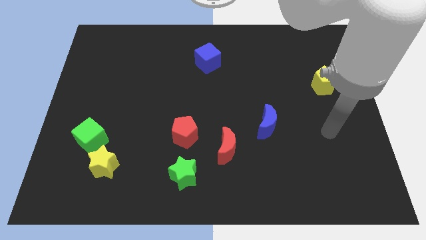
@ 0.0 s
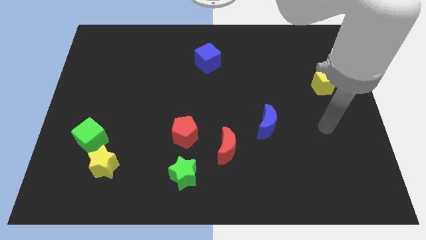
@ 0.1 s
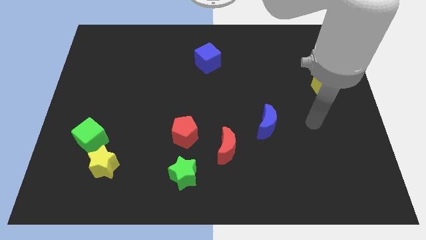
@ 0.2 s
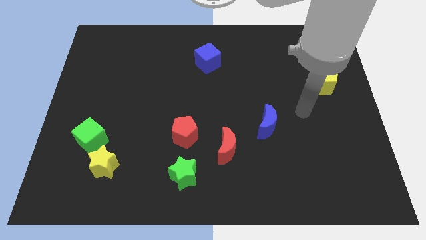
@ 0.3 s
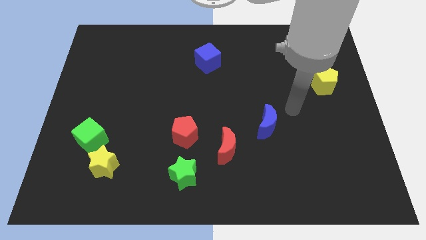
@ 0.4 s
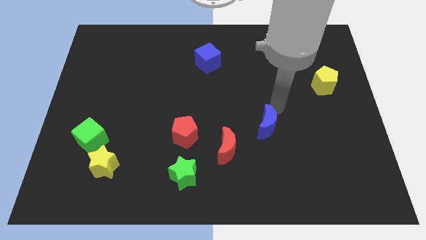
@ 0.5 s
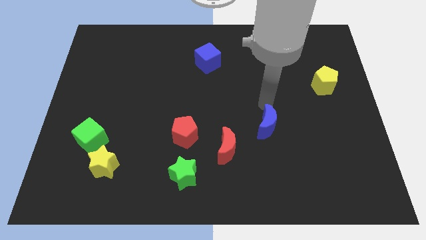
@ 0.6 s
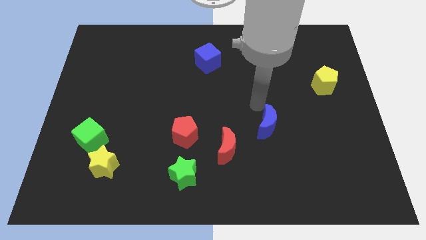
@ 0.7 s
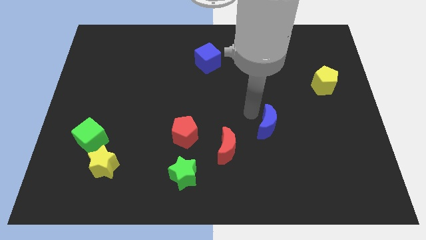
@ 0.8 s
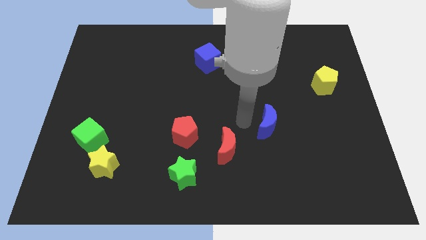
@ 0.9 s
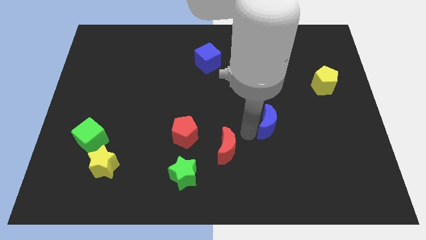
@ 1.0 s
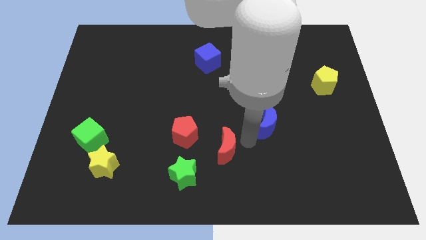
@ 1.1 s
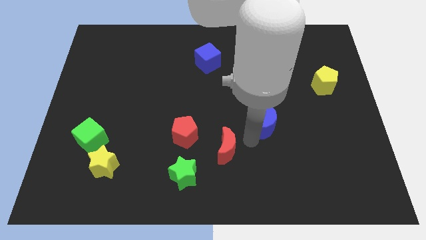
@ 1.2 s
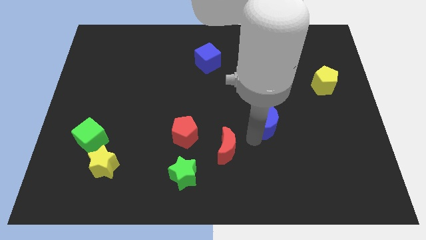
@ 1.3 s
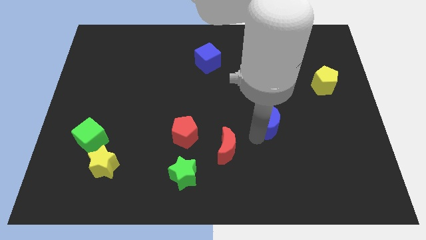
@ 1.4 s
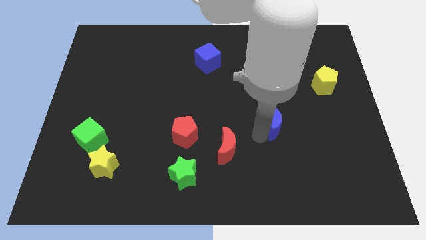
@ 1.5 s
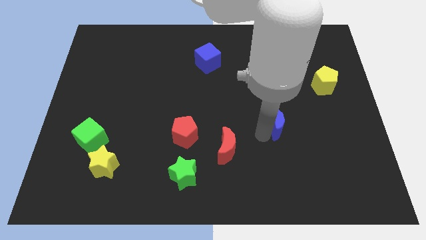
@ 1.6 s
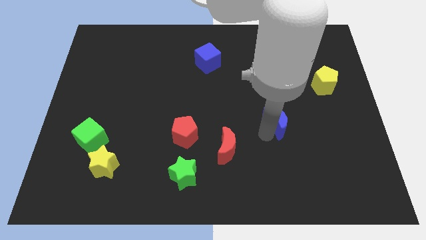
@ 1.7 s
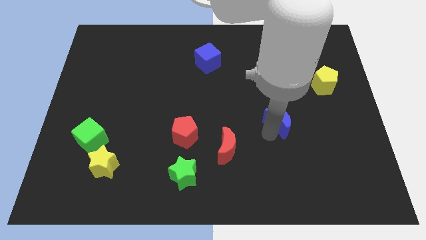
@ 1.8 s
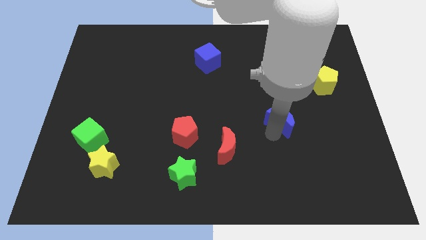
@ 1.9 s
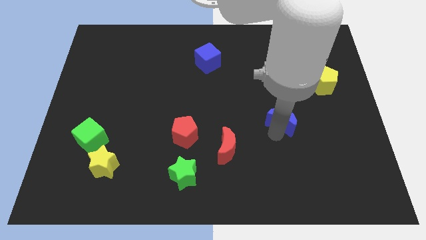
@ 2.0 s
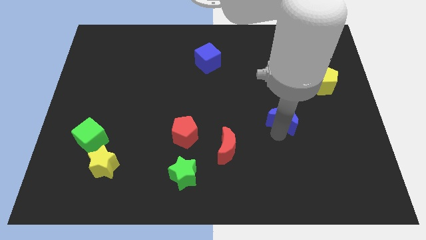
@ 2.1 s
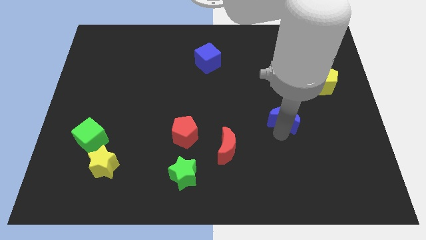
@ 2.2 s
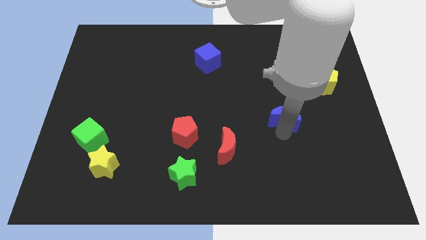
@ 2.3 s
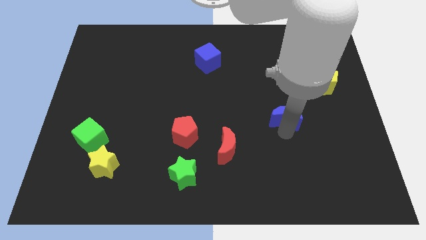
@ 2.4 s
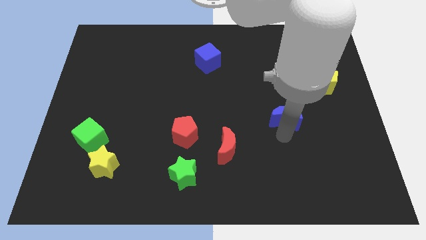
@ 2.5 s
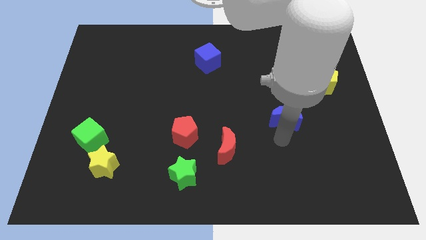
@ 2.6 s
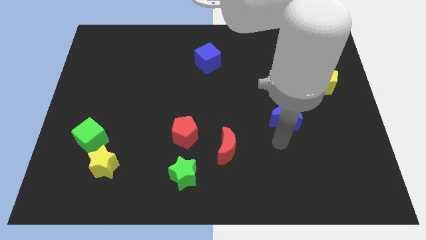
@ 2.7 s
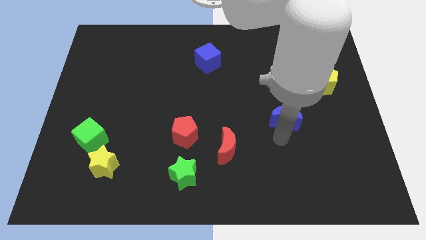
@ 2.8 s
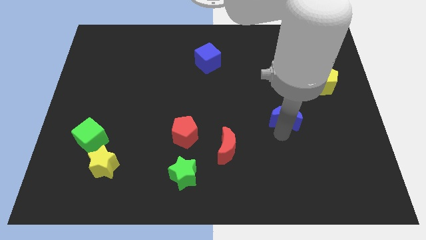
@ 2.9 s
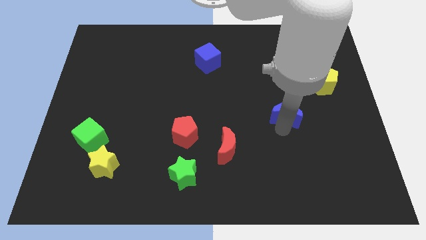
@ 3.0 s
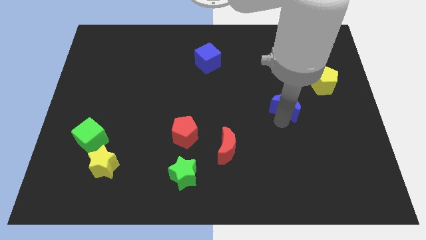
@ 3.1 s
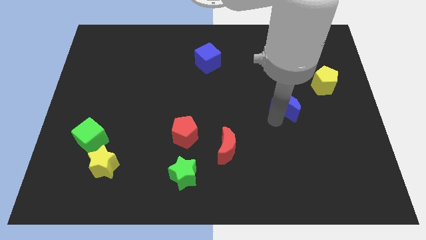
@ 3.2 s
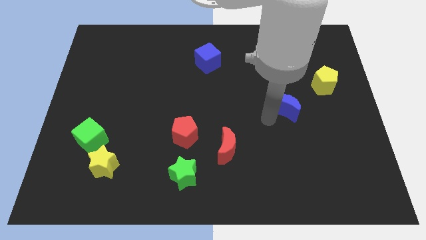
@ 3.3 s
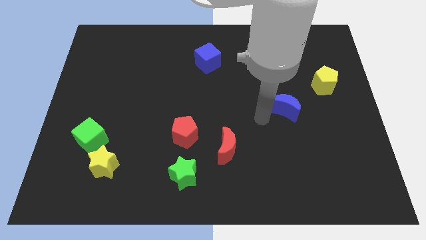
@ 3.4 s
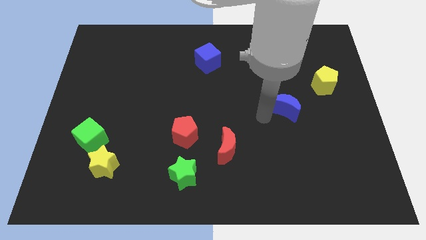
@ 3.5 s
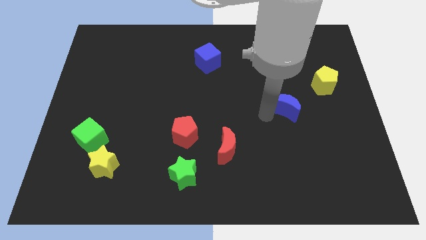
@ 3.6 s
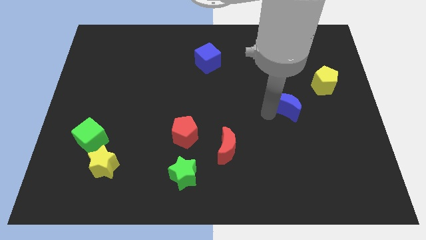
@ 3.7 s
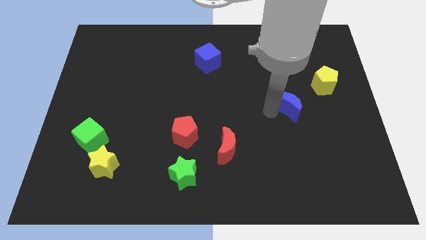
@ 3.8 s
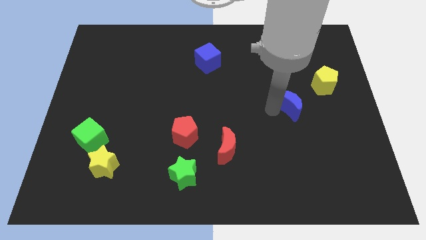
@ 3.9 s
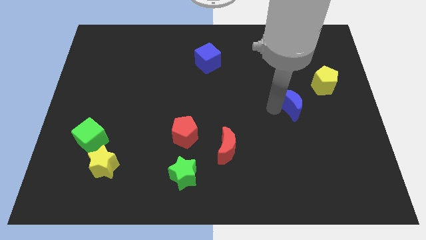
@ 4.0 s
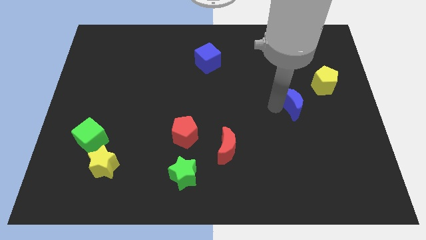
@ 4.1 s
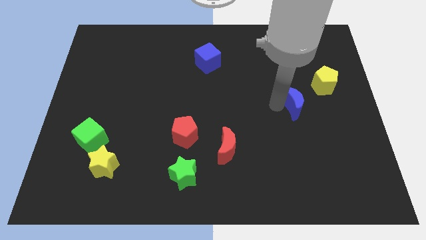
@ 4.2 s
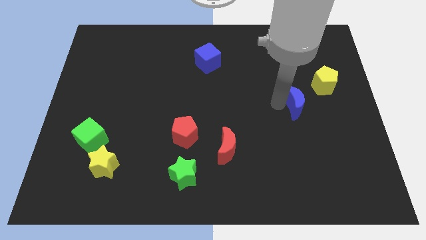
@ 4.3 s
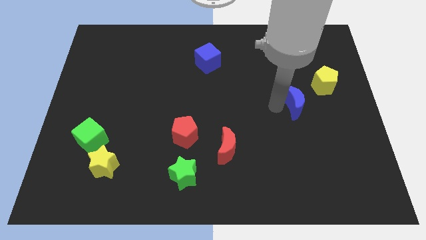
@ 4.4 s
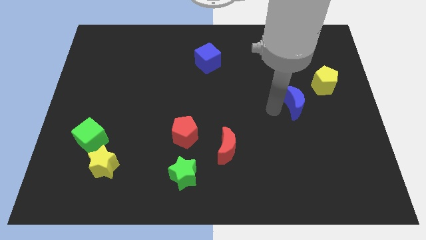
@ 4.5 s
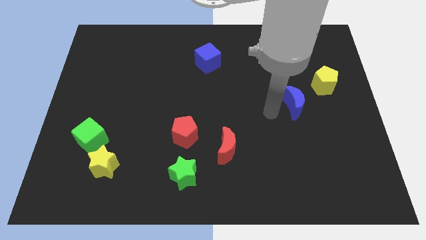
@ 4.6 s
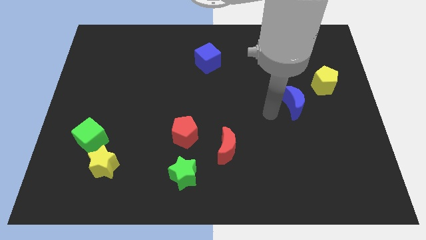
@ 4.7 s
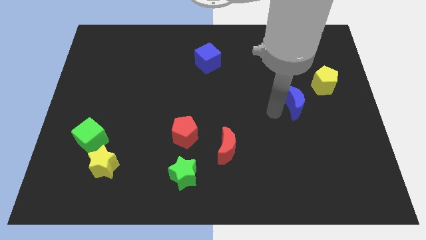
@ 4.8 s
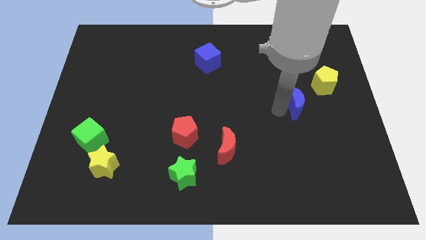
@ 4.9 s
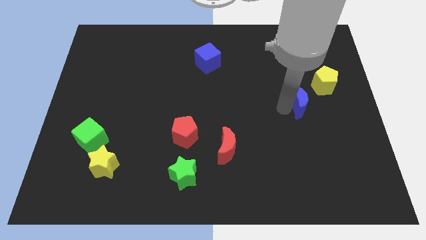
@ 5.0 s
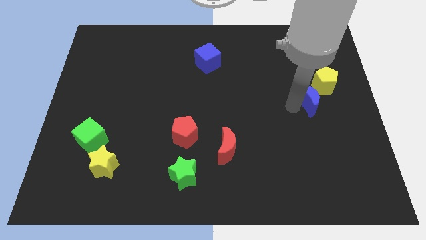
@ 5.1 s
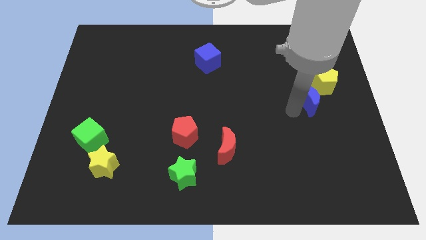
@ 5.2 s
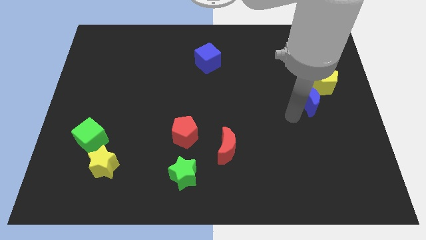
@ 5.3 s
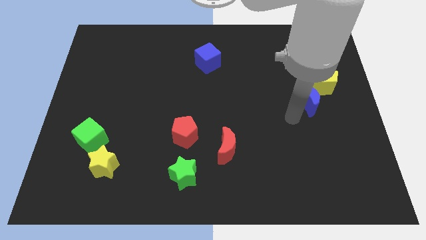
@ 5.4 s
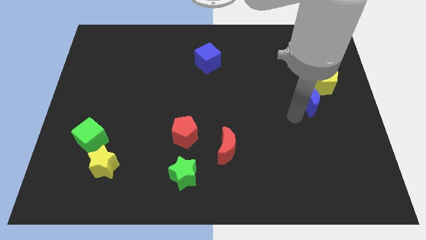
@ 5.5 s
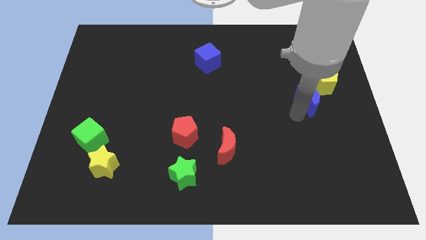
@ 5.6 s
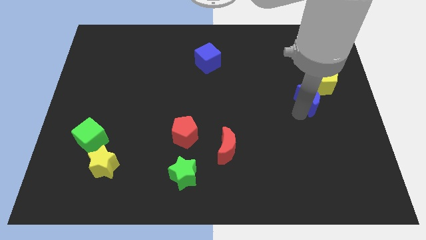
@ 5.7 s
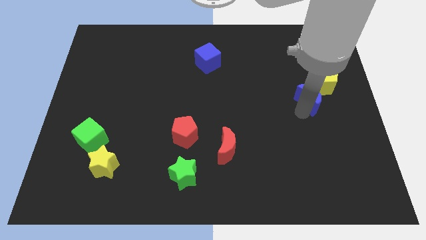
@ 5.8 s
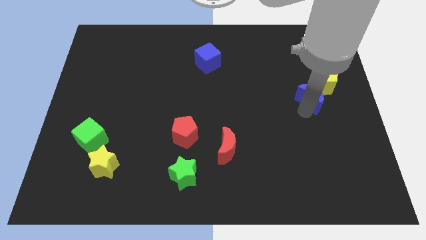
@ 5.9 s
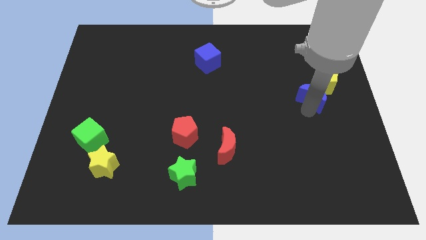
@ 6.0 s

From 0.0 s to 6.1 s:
put the blue moon close to the yellow pentagon

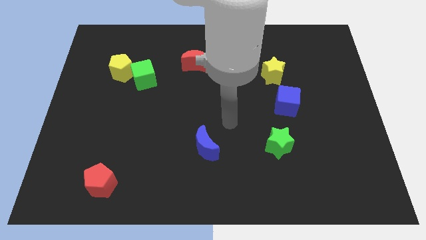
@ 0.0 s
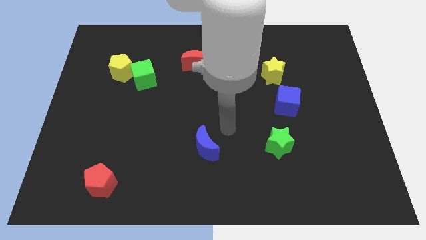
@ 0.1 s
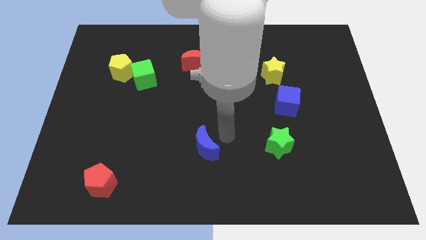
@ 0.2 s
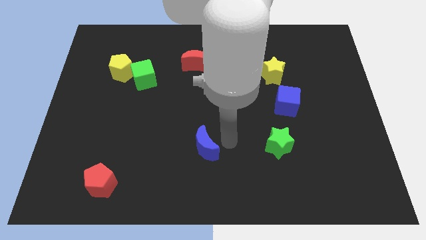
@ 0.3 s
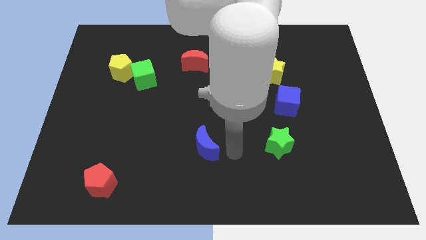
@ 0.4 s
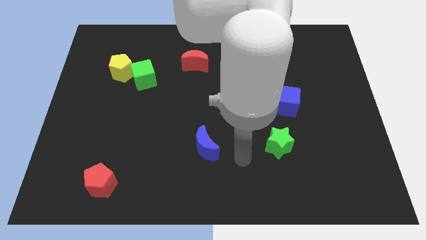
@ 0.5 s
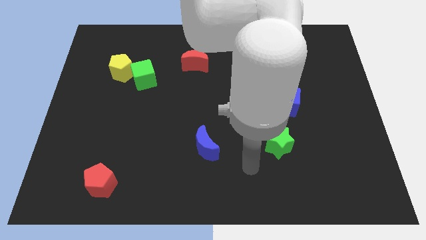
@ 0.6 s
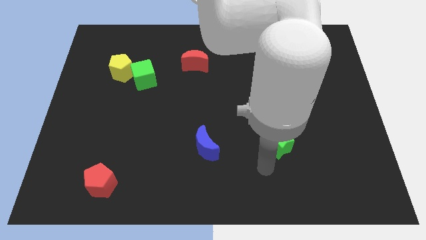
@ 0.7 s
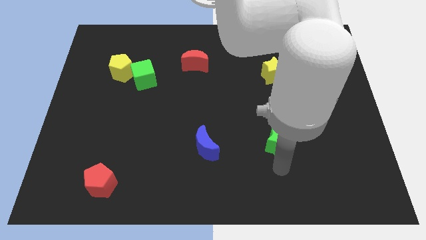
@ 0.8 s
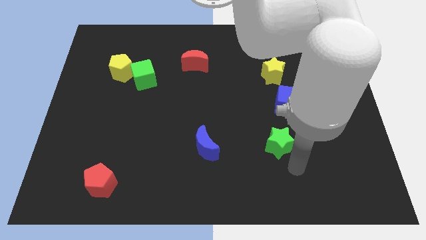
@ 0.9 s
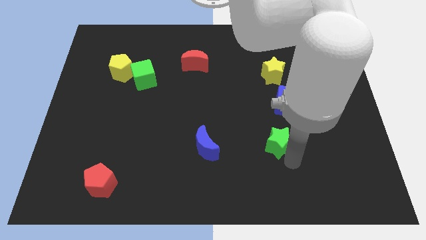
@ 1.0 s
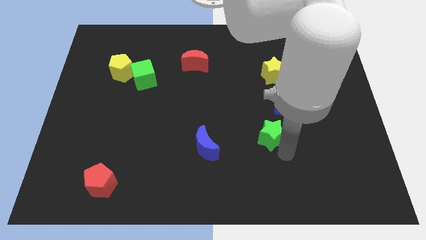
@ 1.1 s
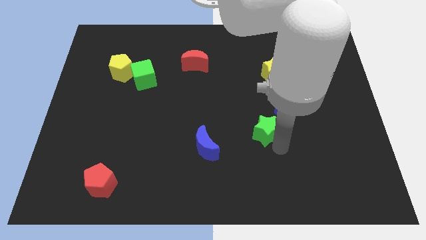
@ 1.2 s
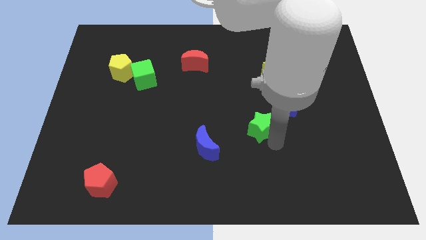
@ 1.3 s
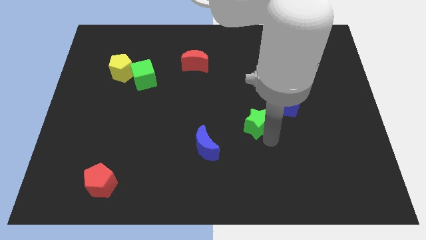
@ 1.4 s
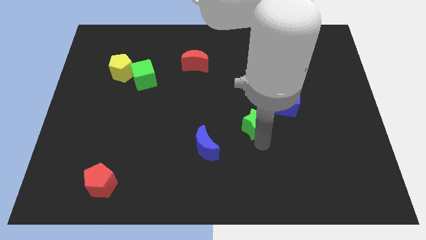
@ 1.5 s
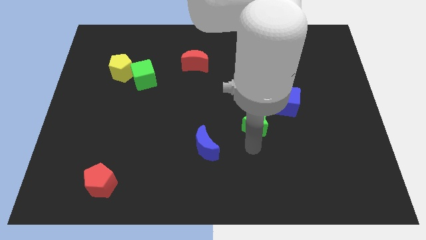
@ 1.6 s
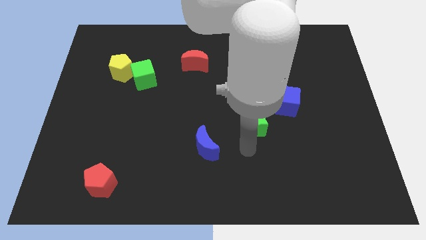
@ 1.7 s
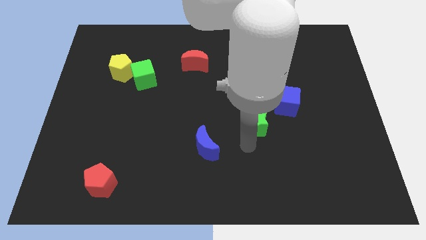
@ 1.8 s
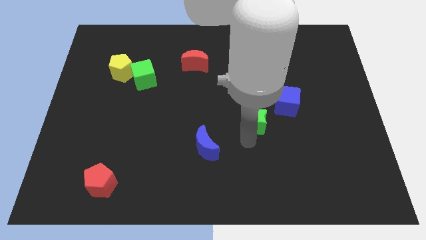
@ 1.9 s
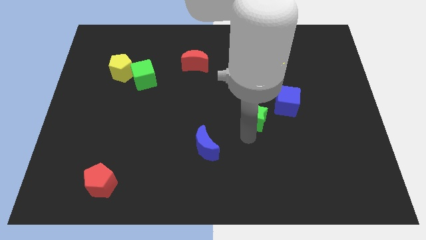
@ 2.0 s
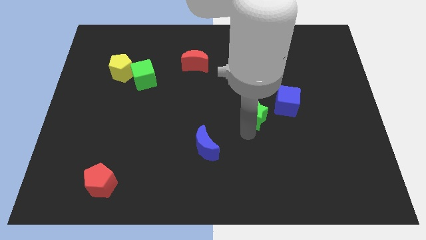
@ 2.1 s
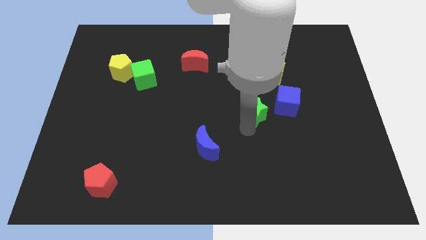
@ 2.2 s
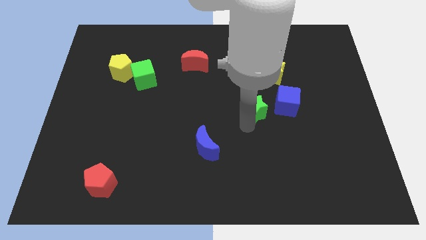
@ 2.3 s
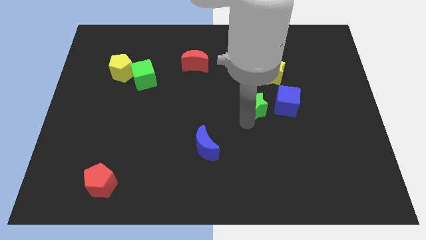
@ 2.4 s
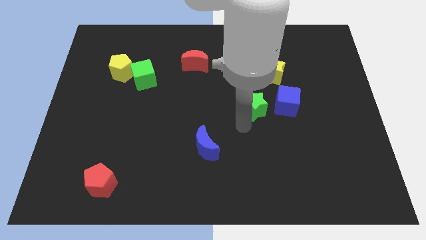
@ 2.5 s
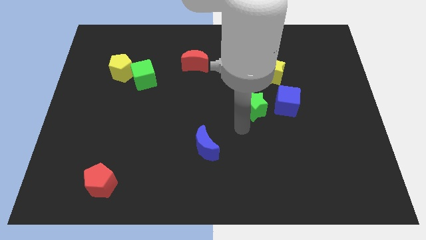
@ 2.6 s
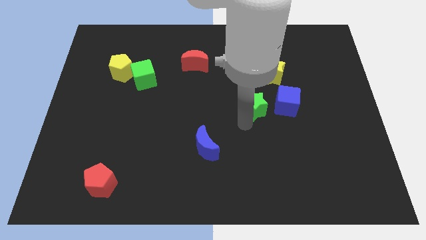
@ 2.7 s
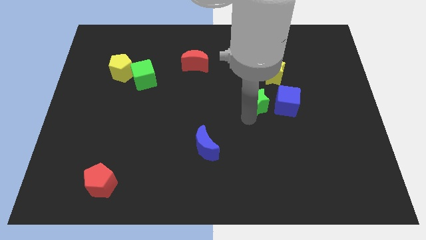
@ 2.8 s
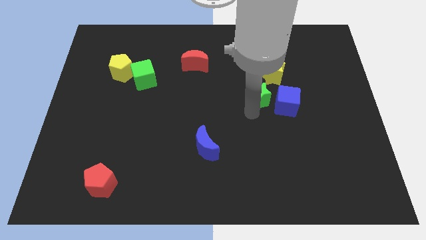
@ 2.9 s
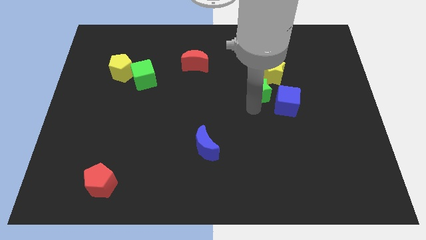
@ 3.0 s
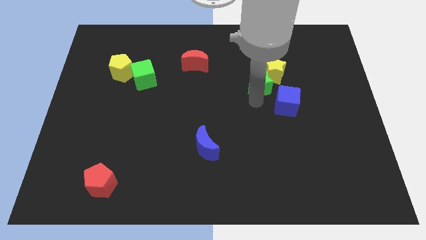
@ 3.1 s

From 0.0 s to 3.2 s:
put the green star towards the yellow star
